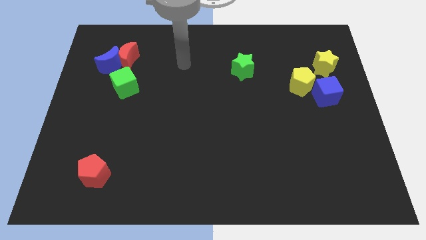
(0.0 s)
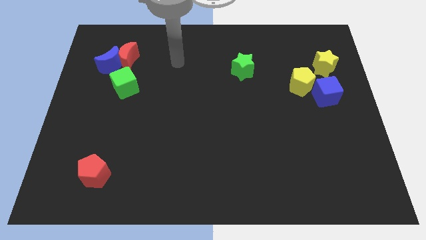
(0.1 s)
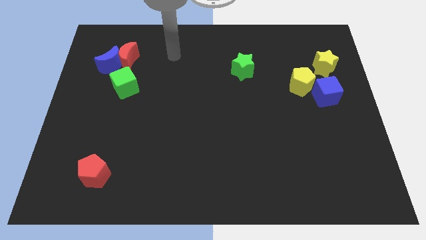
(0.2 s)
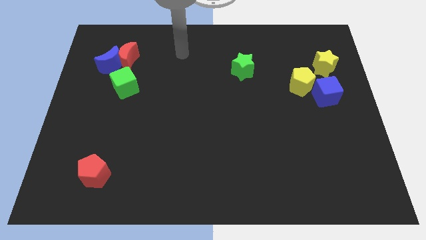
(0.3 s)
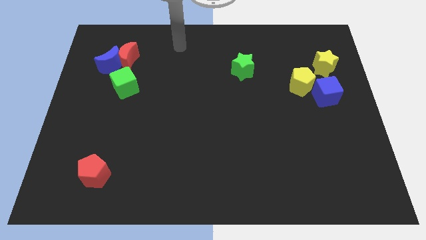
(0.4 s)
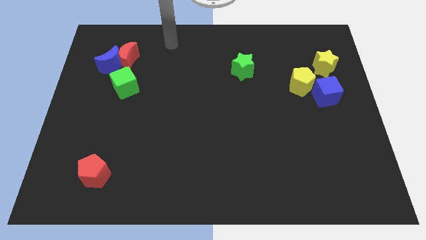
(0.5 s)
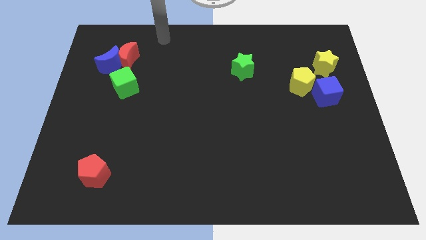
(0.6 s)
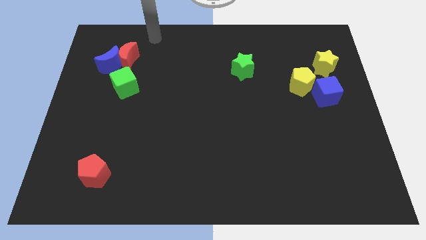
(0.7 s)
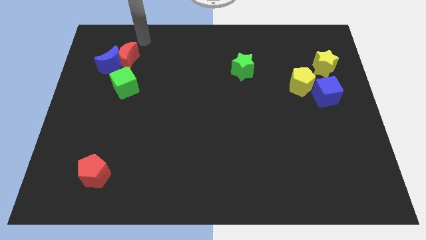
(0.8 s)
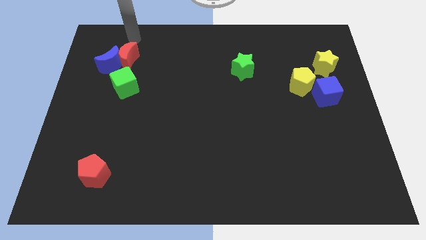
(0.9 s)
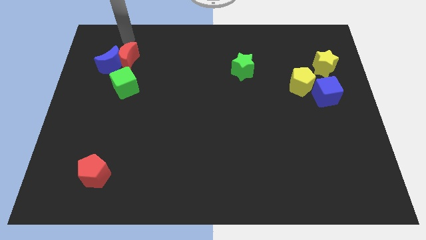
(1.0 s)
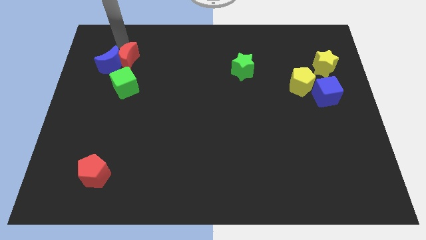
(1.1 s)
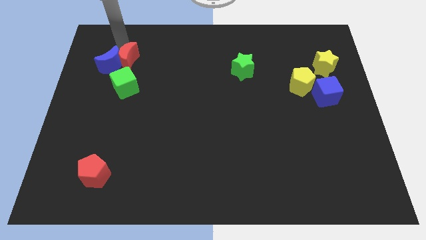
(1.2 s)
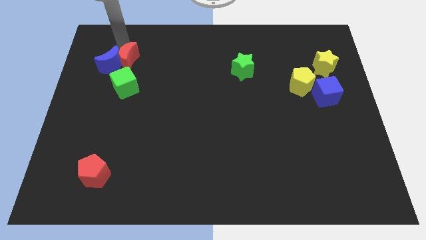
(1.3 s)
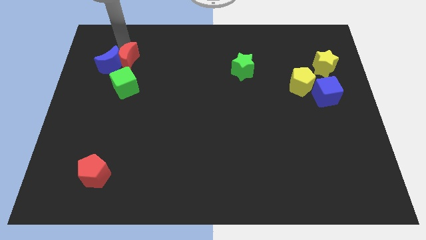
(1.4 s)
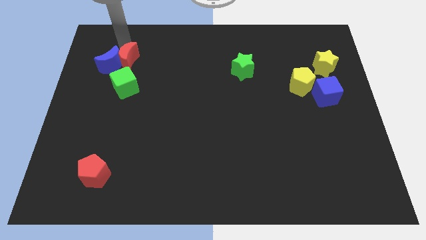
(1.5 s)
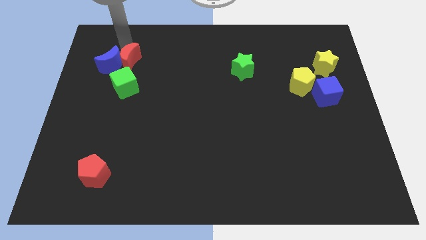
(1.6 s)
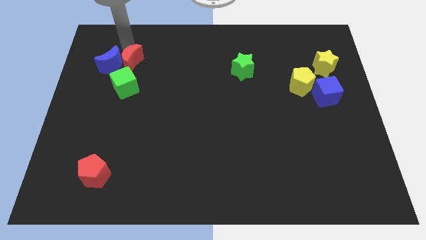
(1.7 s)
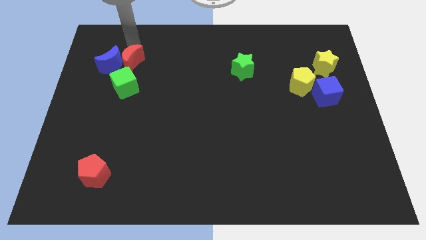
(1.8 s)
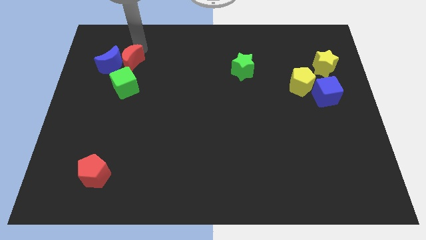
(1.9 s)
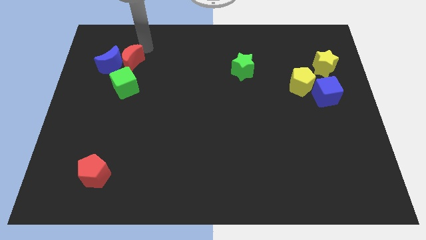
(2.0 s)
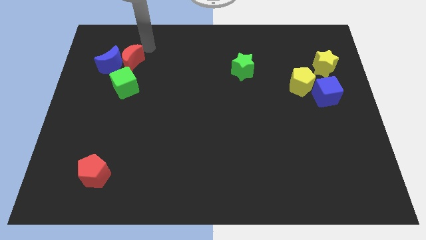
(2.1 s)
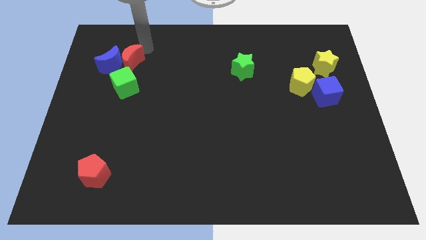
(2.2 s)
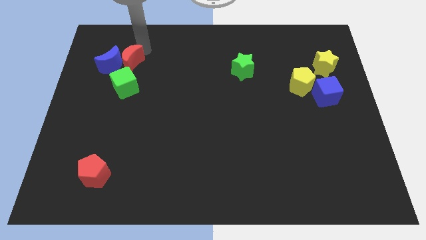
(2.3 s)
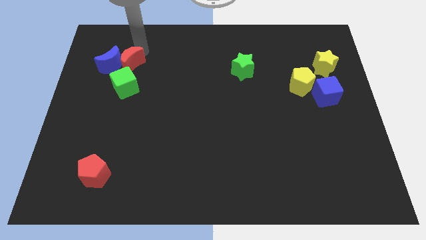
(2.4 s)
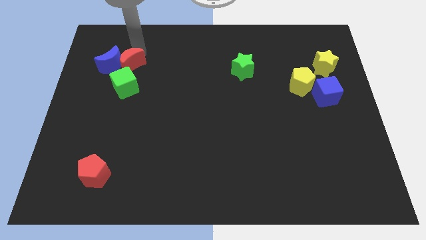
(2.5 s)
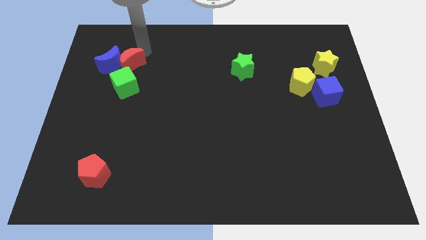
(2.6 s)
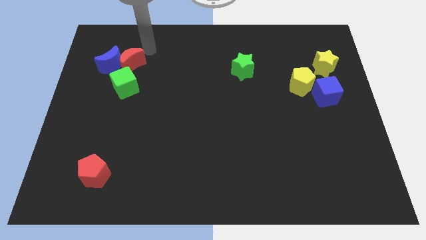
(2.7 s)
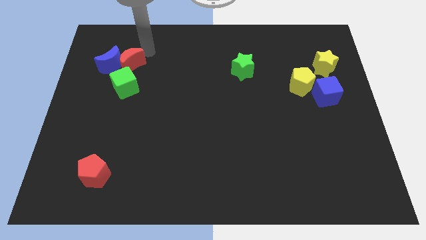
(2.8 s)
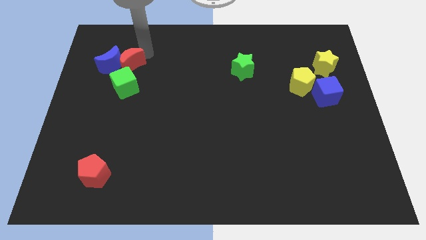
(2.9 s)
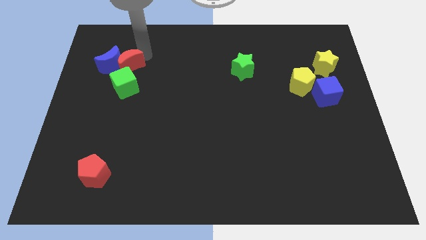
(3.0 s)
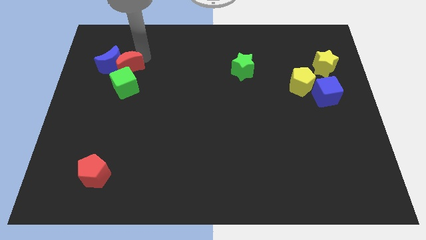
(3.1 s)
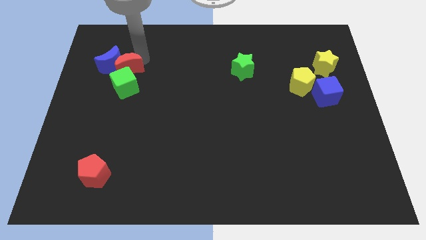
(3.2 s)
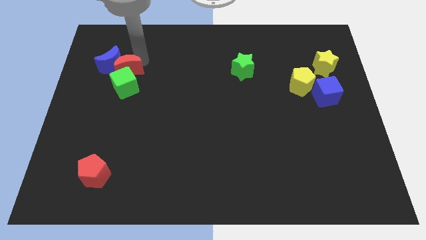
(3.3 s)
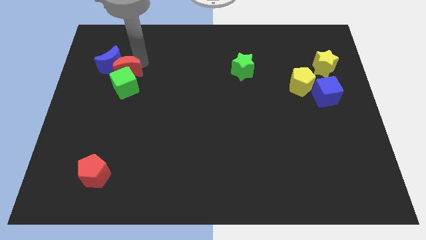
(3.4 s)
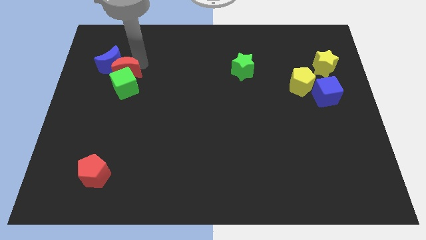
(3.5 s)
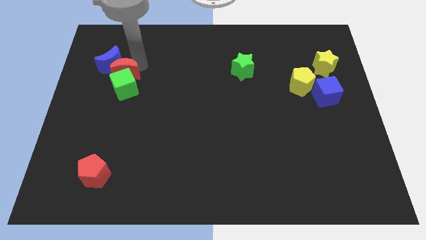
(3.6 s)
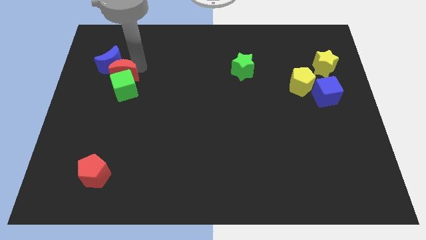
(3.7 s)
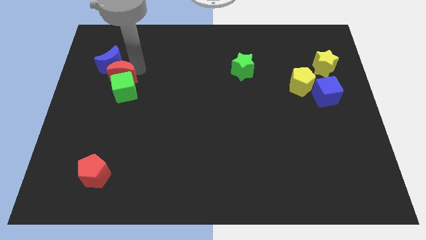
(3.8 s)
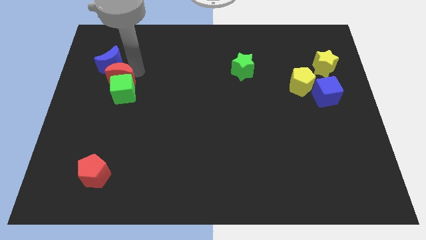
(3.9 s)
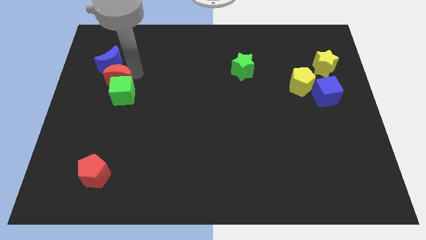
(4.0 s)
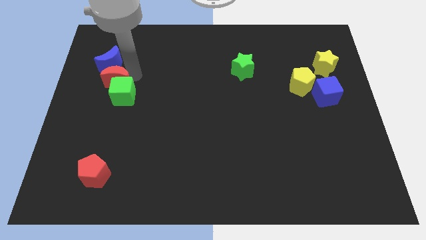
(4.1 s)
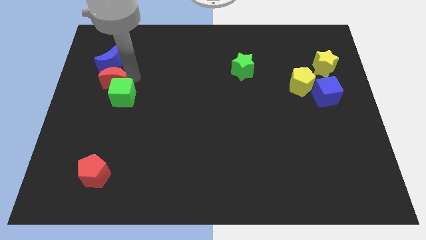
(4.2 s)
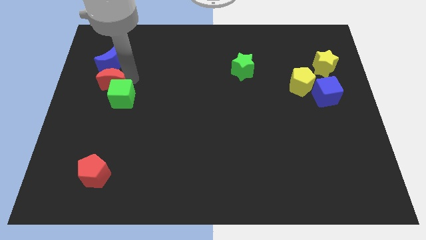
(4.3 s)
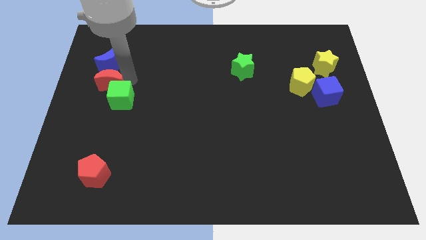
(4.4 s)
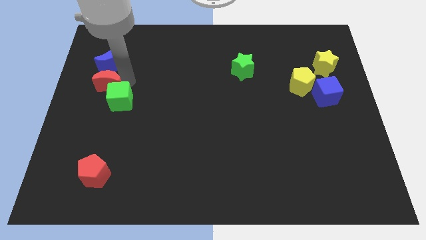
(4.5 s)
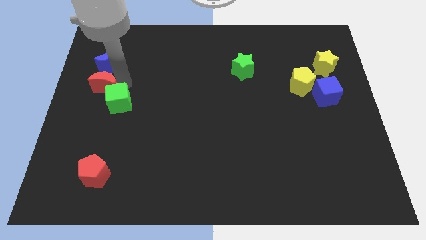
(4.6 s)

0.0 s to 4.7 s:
move the red moon to the left side

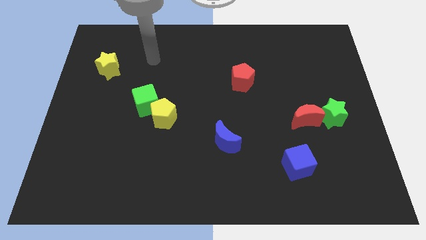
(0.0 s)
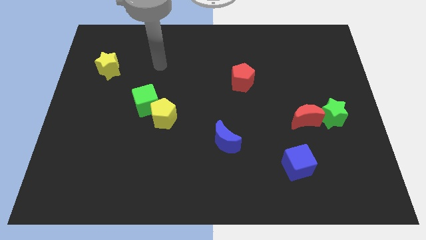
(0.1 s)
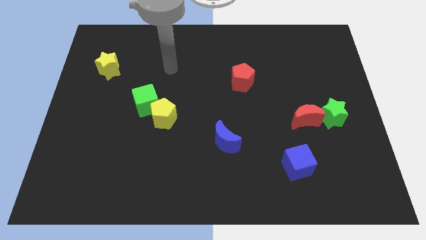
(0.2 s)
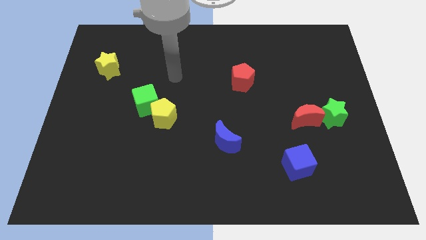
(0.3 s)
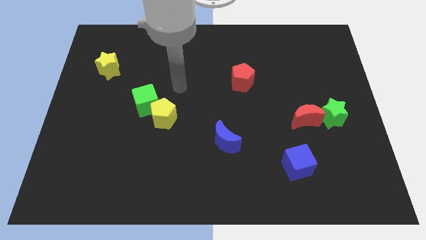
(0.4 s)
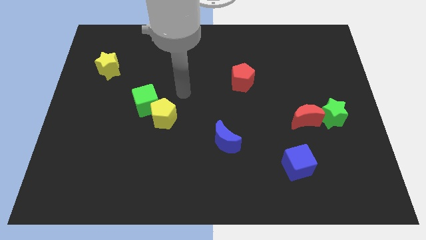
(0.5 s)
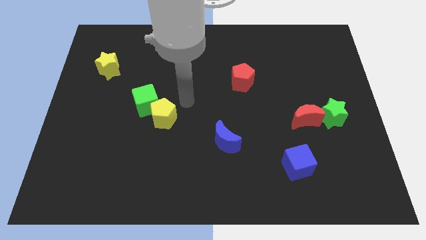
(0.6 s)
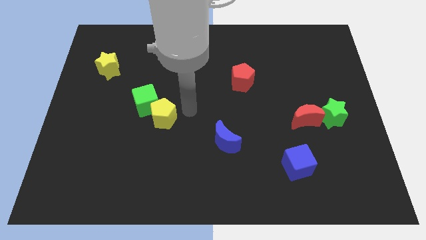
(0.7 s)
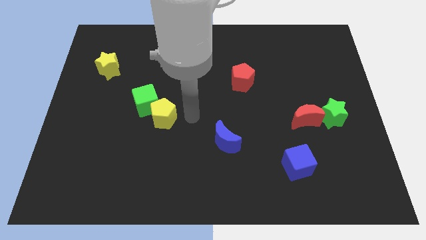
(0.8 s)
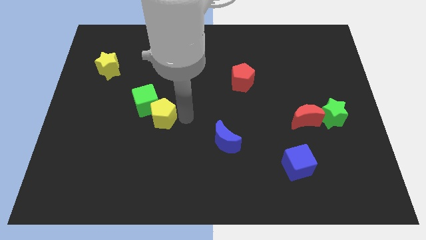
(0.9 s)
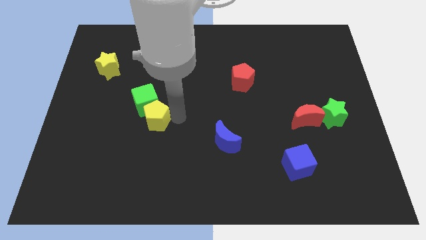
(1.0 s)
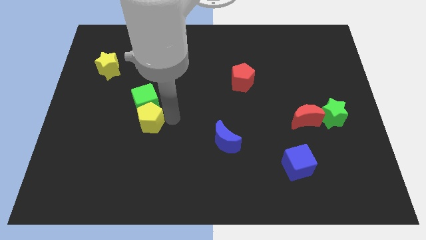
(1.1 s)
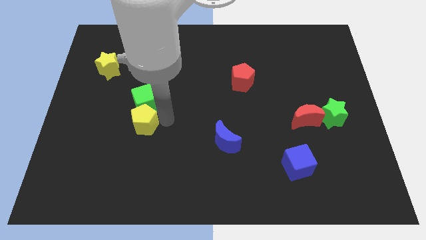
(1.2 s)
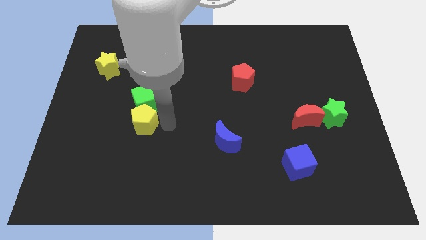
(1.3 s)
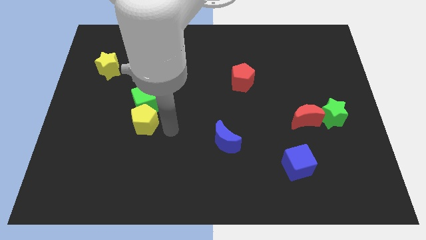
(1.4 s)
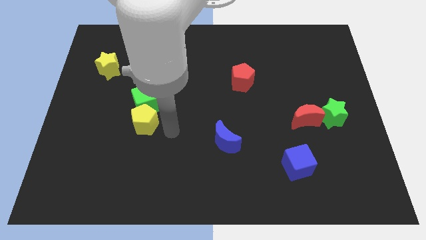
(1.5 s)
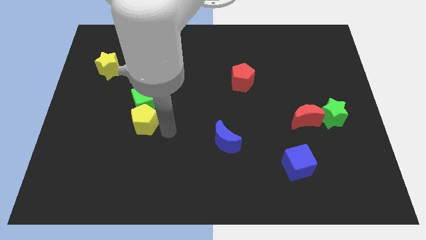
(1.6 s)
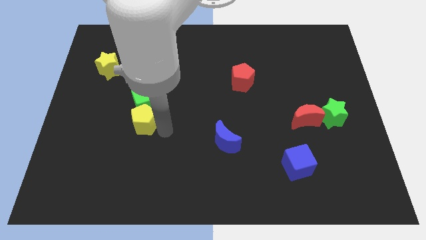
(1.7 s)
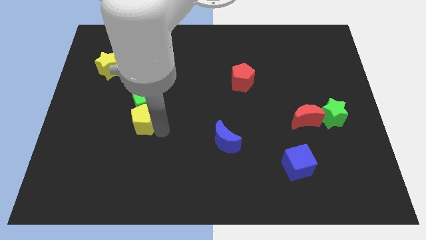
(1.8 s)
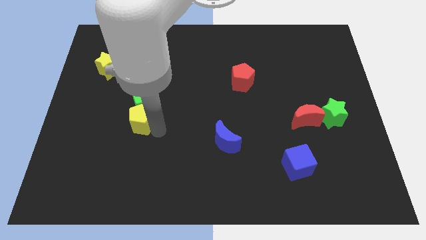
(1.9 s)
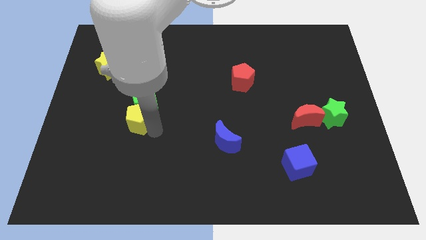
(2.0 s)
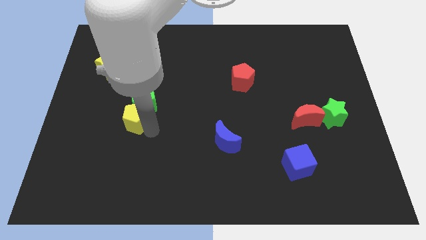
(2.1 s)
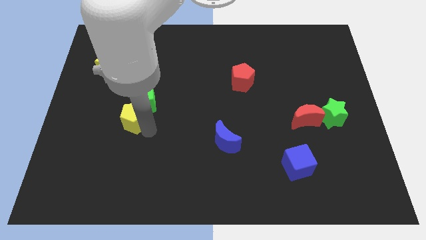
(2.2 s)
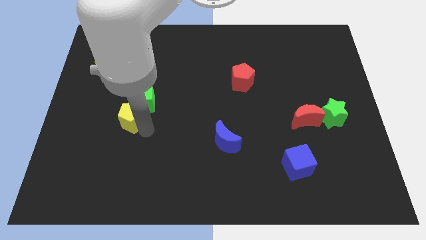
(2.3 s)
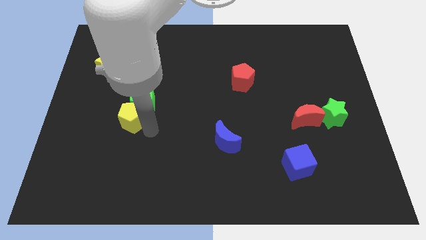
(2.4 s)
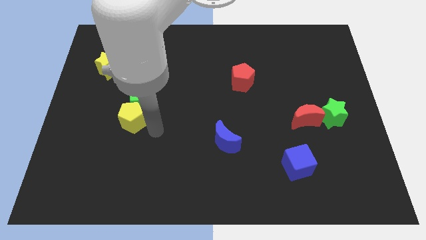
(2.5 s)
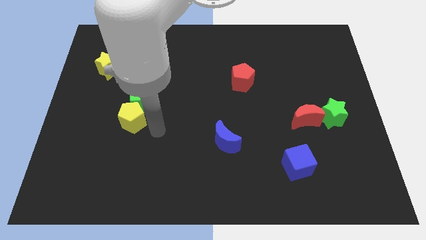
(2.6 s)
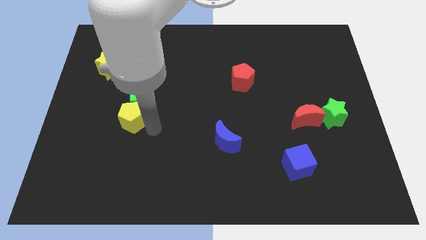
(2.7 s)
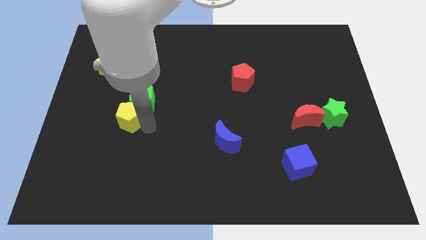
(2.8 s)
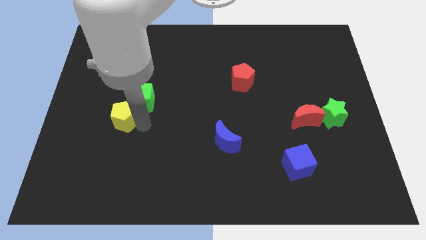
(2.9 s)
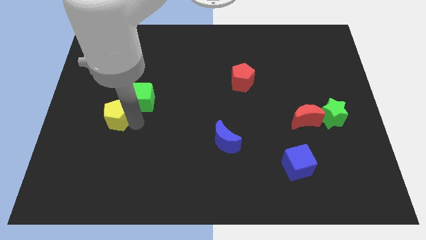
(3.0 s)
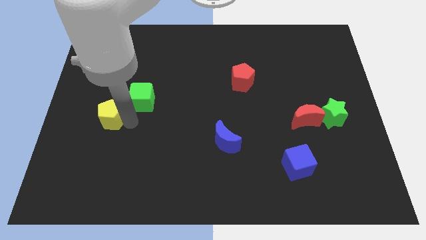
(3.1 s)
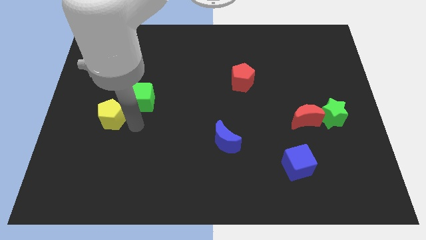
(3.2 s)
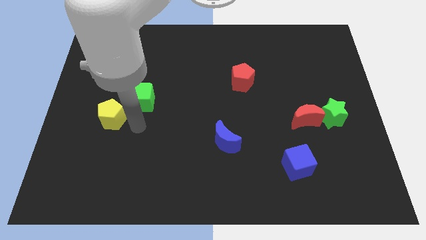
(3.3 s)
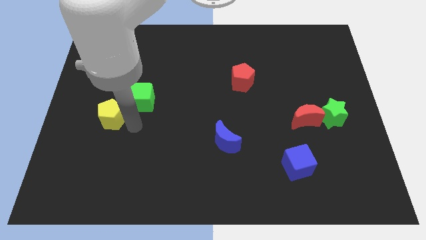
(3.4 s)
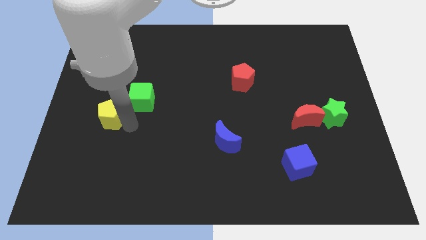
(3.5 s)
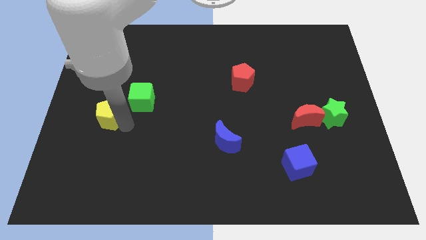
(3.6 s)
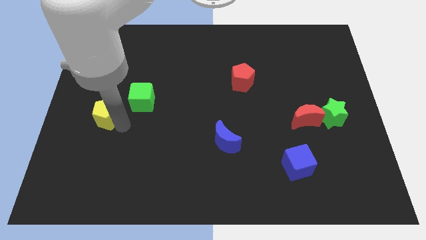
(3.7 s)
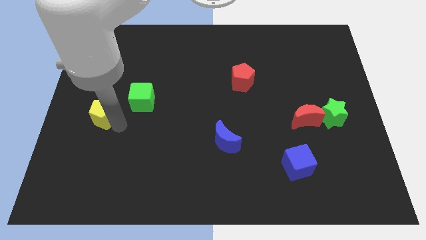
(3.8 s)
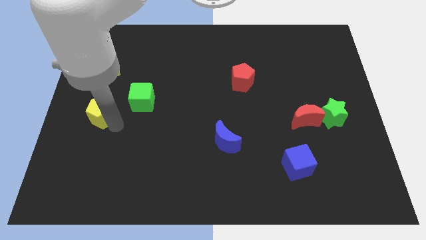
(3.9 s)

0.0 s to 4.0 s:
slide the yellow pentagon to the left side of the board
